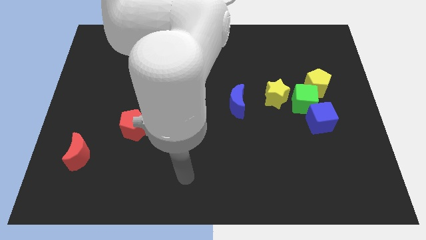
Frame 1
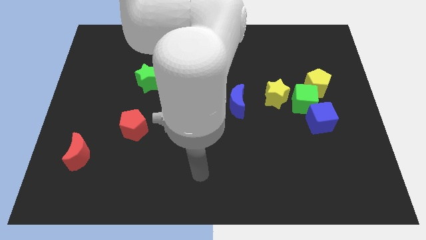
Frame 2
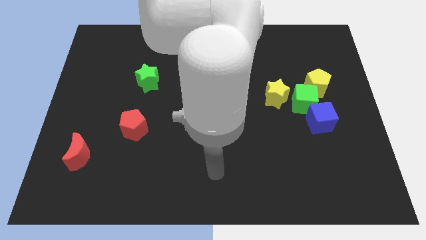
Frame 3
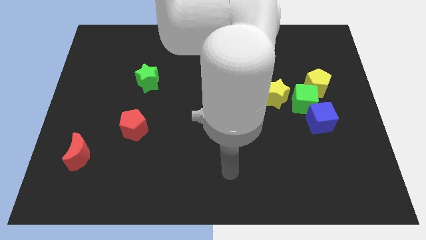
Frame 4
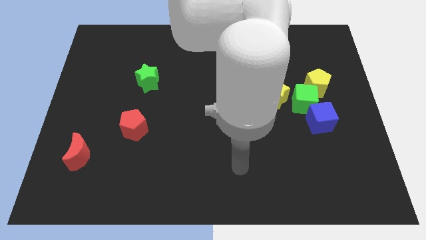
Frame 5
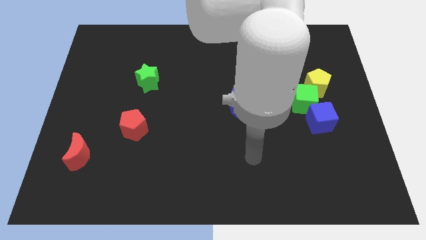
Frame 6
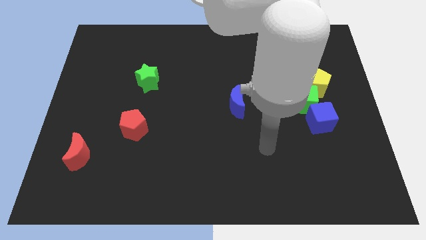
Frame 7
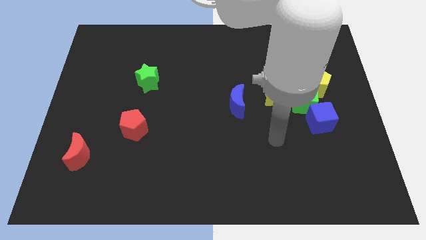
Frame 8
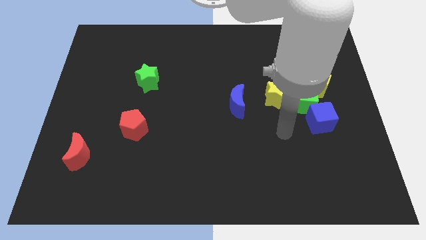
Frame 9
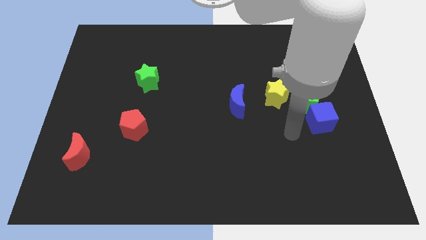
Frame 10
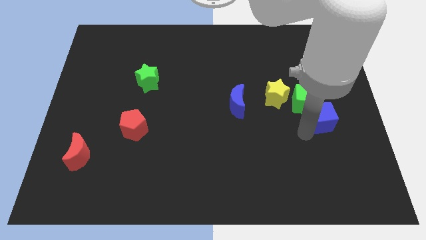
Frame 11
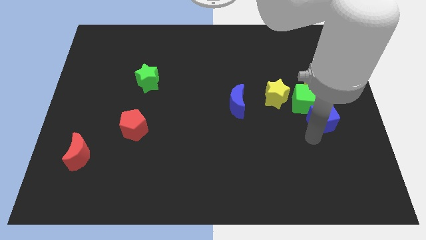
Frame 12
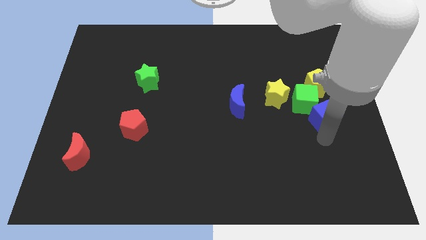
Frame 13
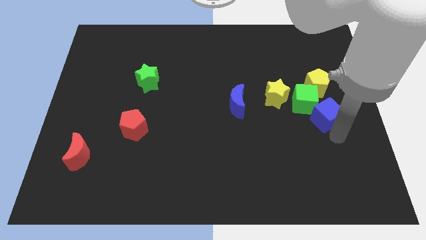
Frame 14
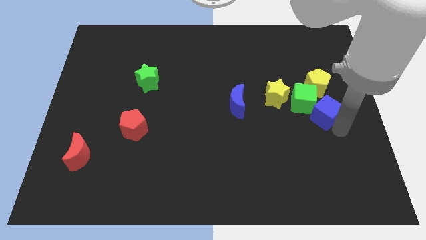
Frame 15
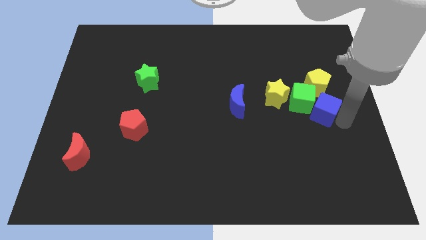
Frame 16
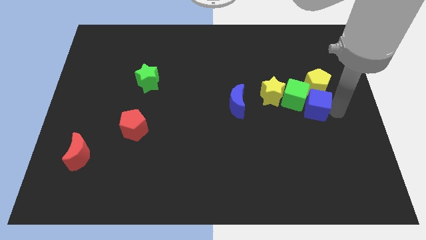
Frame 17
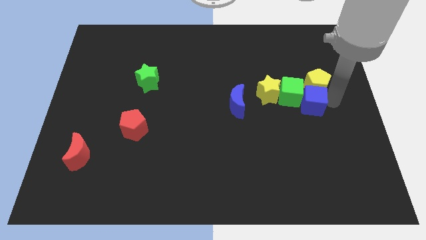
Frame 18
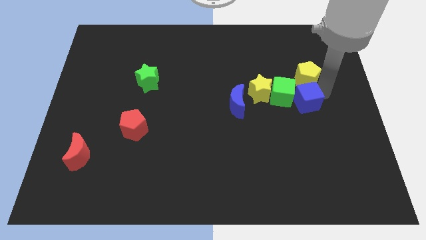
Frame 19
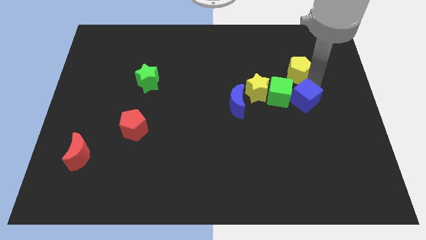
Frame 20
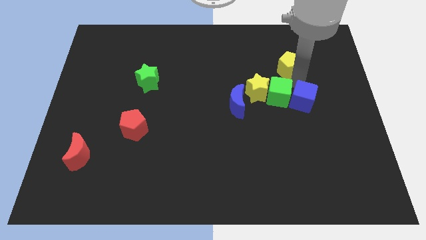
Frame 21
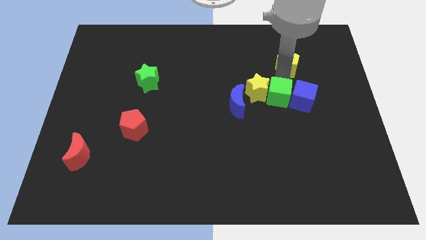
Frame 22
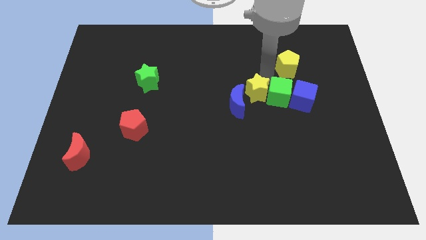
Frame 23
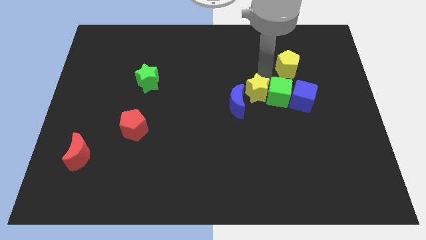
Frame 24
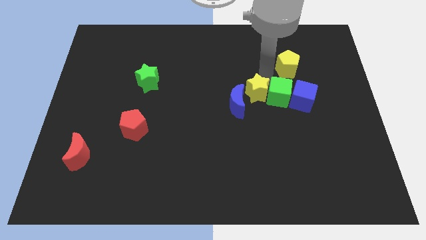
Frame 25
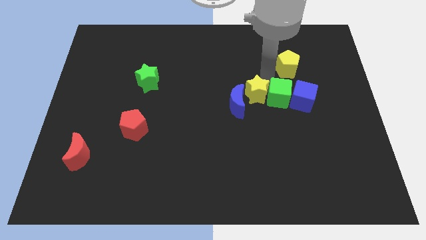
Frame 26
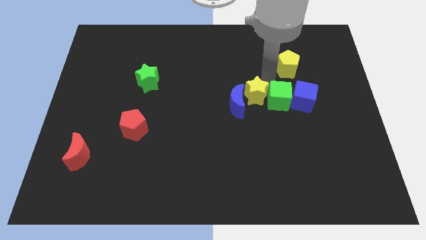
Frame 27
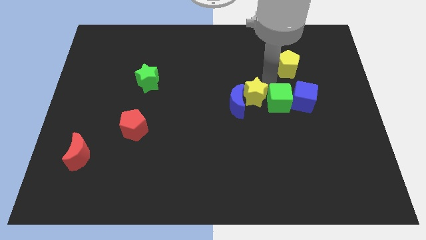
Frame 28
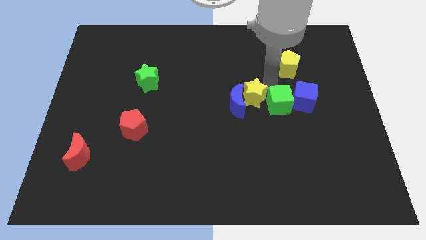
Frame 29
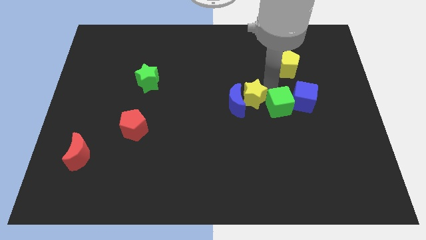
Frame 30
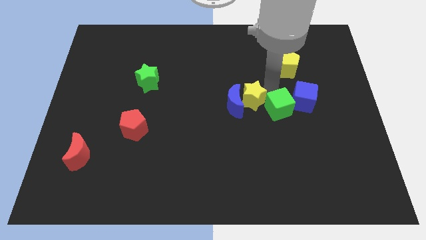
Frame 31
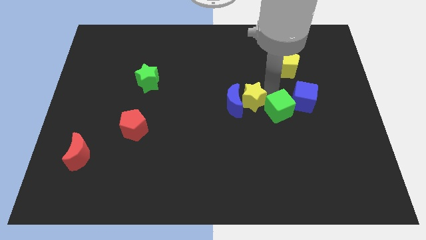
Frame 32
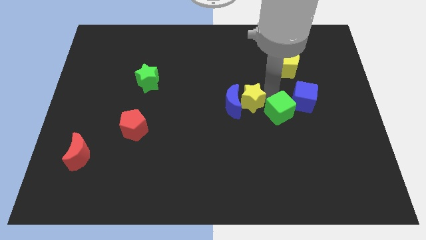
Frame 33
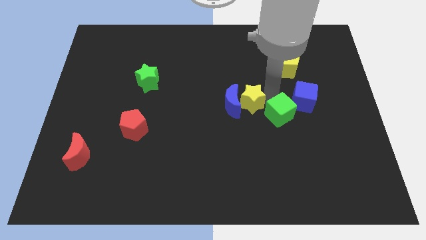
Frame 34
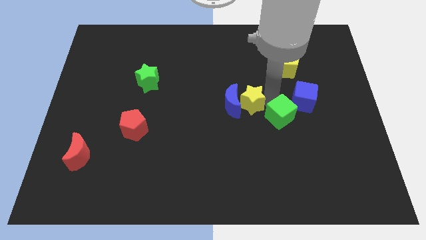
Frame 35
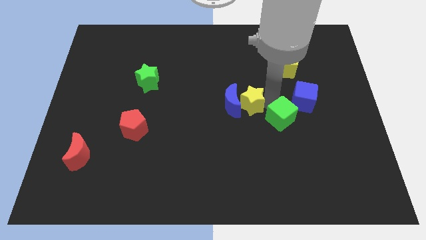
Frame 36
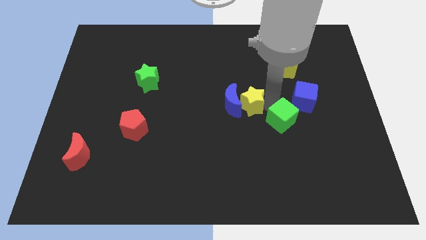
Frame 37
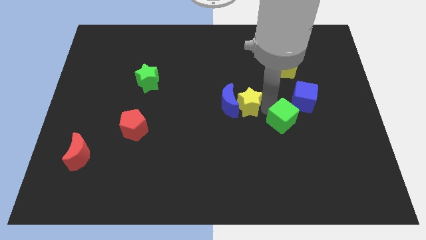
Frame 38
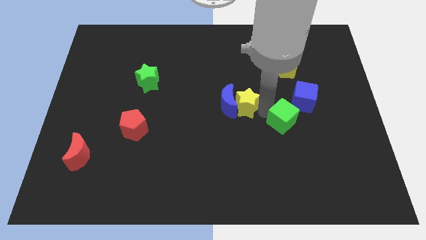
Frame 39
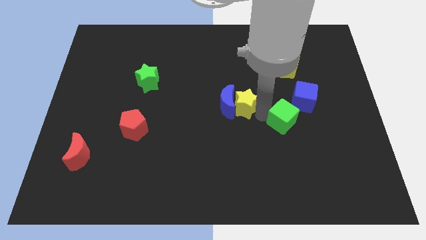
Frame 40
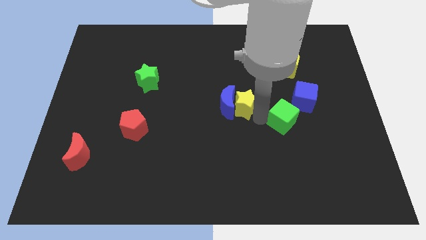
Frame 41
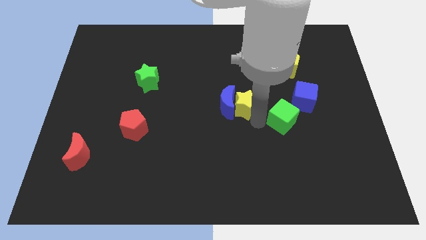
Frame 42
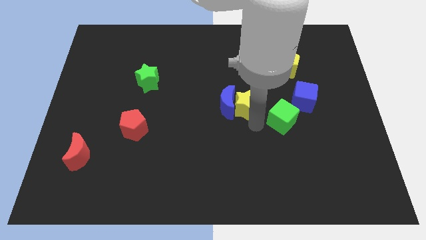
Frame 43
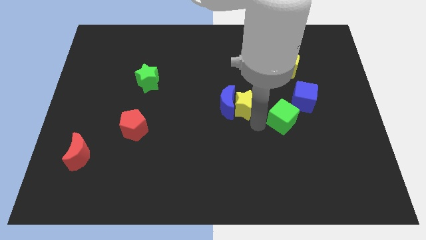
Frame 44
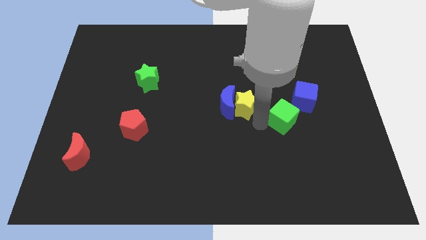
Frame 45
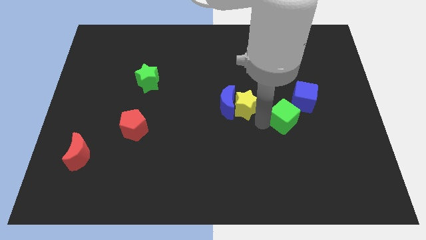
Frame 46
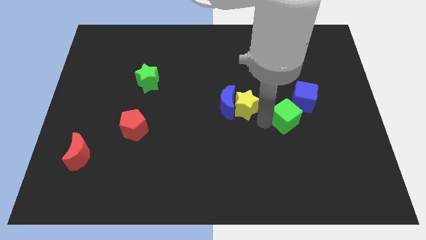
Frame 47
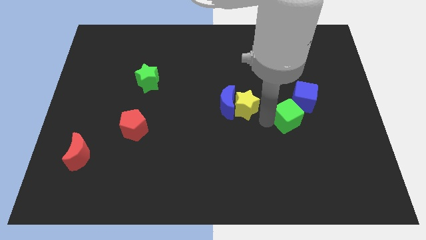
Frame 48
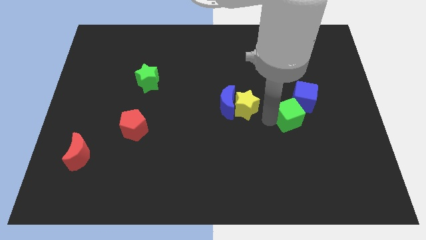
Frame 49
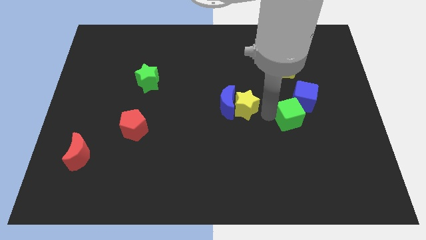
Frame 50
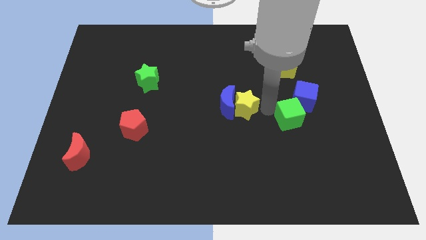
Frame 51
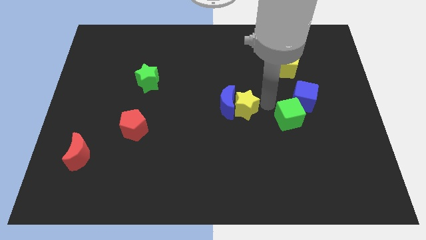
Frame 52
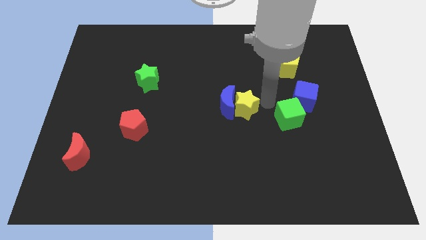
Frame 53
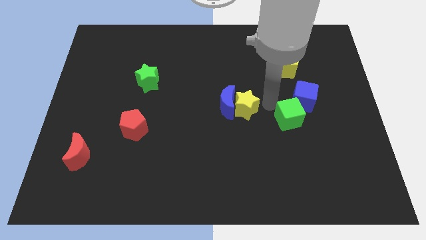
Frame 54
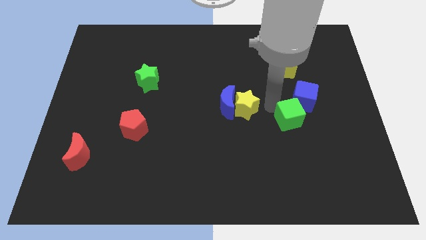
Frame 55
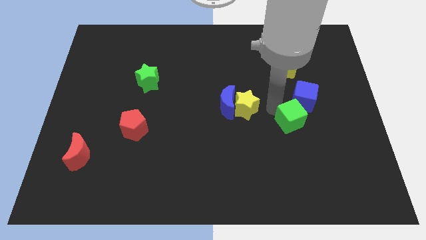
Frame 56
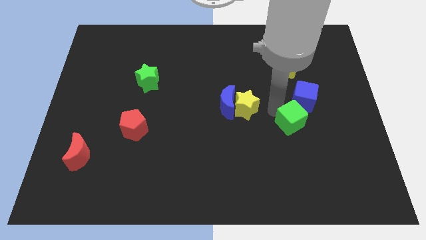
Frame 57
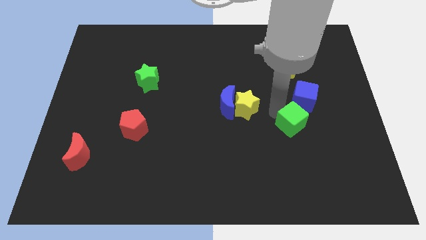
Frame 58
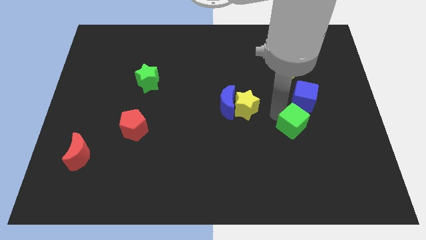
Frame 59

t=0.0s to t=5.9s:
move the green cube away from the yellow pentagon, blue cube, and yellow star

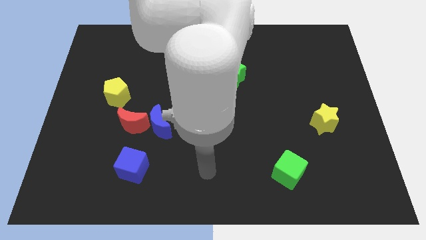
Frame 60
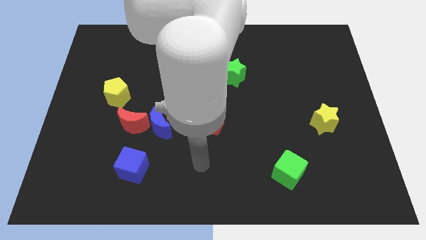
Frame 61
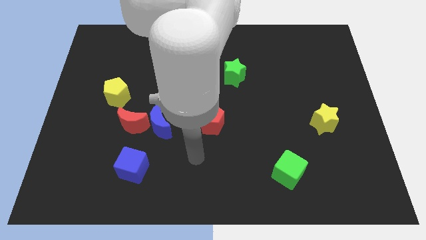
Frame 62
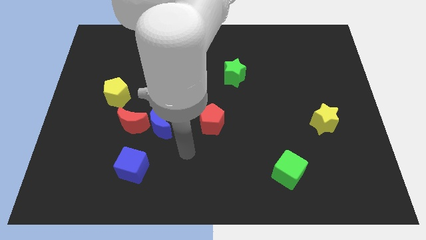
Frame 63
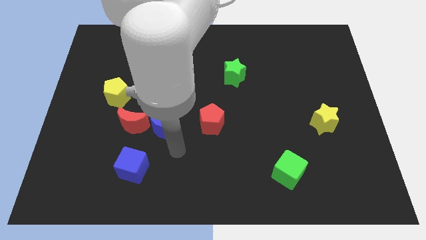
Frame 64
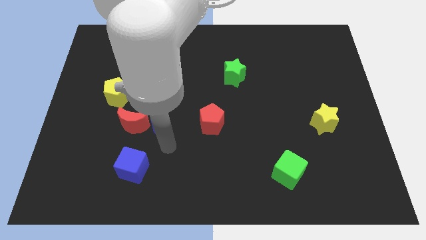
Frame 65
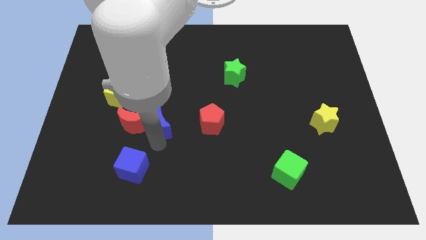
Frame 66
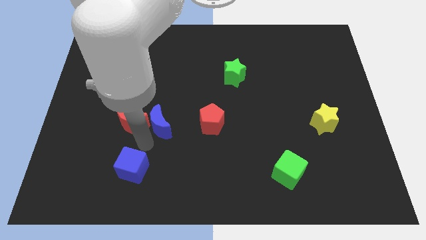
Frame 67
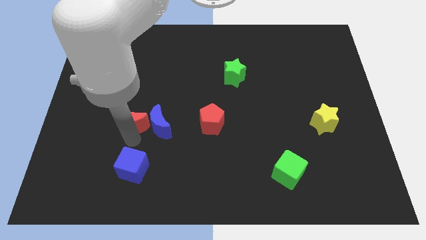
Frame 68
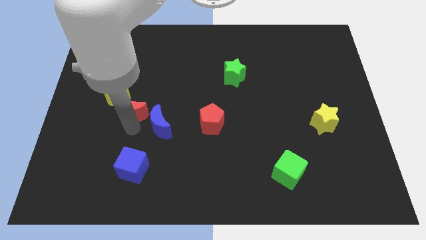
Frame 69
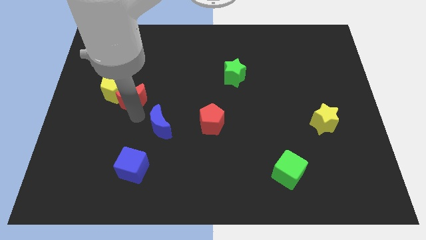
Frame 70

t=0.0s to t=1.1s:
separate the blue moon from the red moon

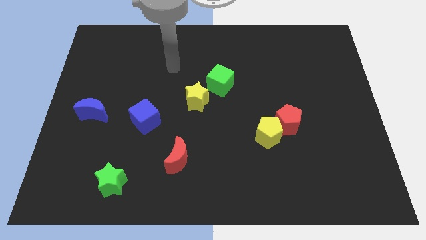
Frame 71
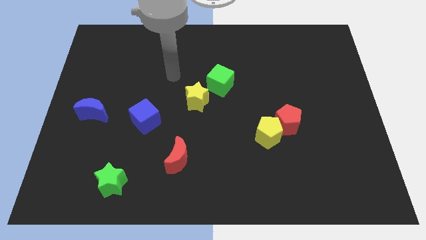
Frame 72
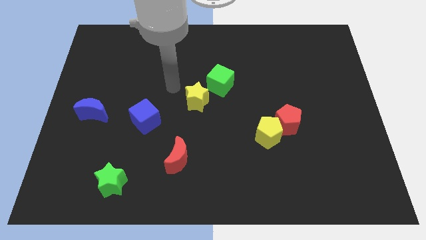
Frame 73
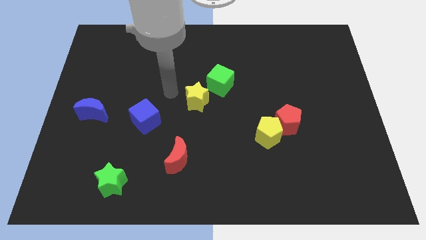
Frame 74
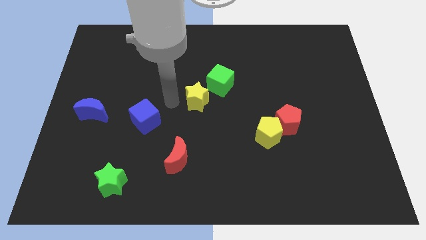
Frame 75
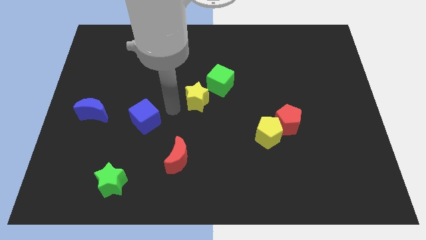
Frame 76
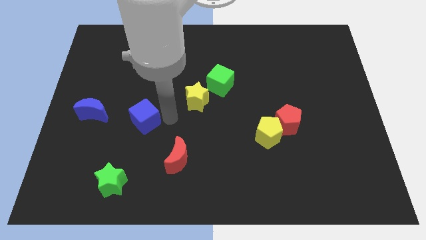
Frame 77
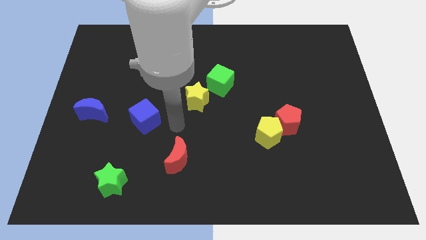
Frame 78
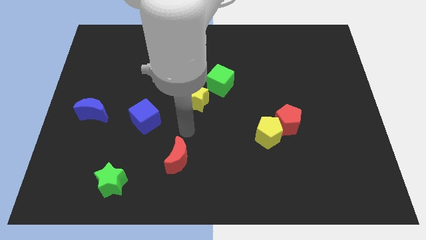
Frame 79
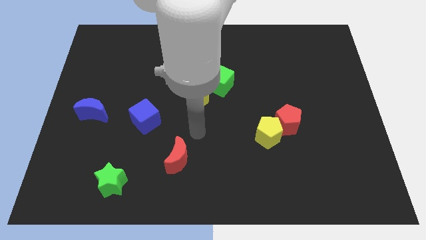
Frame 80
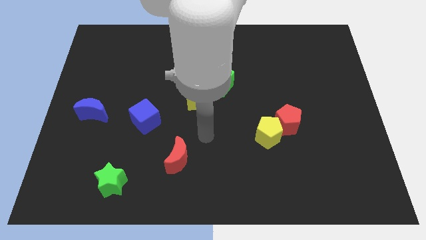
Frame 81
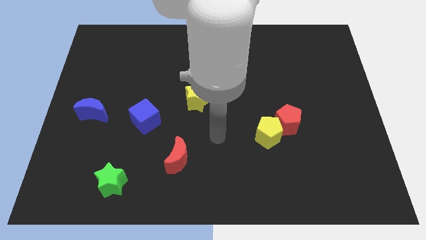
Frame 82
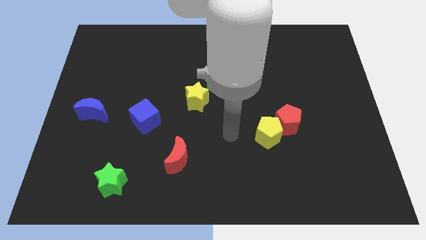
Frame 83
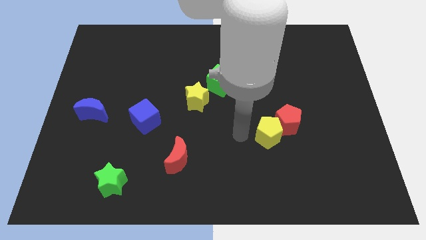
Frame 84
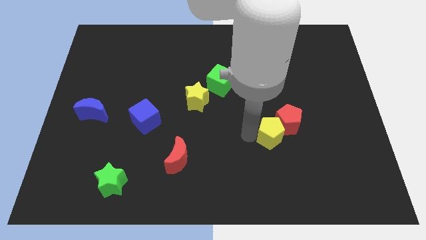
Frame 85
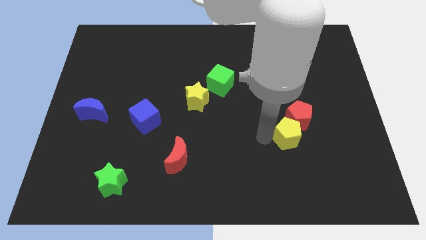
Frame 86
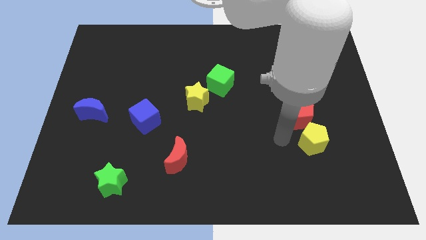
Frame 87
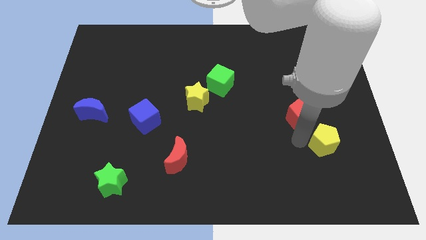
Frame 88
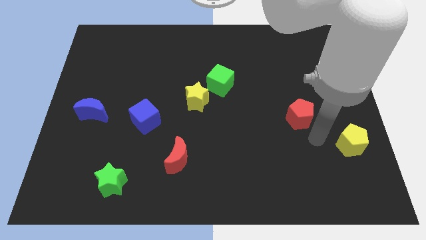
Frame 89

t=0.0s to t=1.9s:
separate the red pentagon from the yellow pentagon

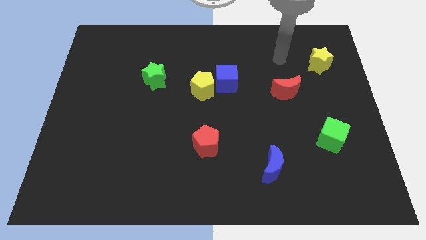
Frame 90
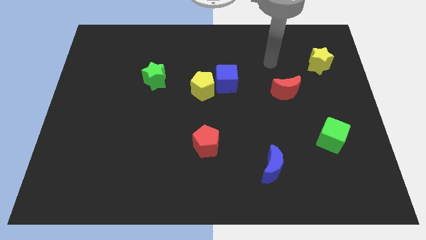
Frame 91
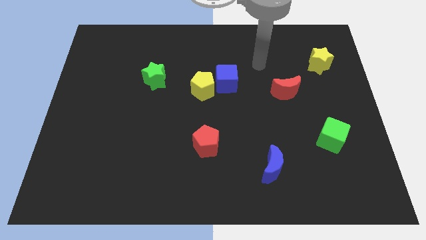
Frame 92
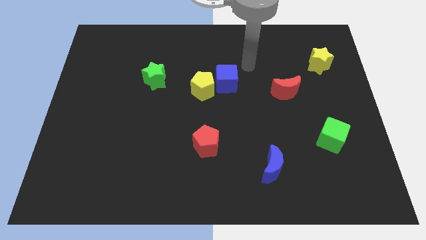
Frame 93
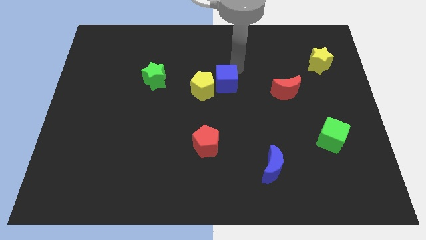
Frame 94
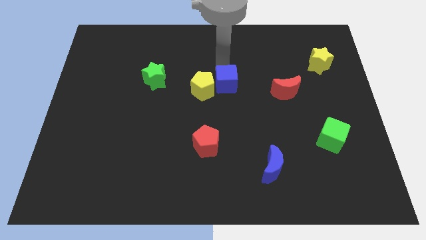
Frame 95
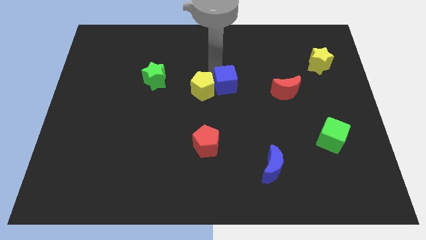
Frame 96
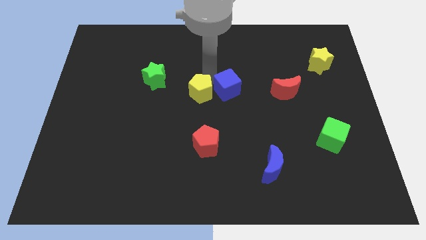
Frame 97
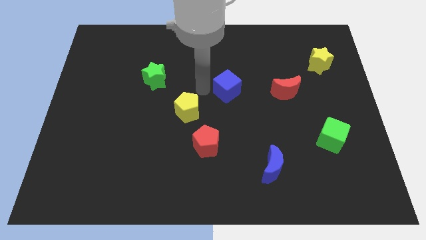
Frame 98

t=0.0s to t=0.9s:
move the blue cube away from the yellow pentagon
